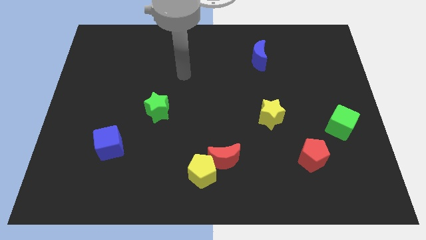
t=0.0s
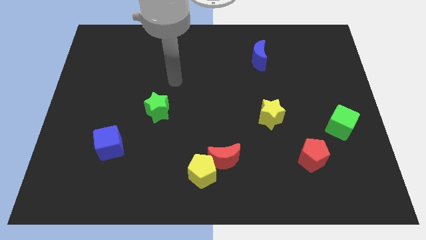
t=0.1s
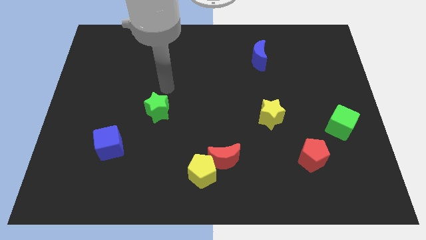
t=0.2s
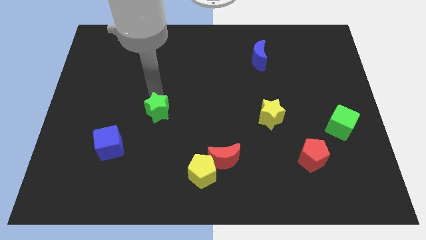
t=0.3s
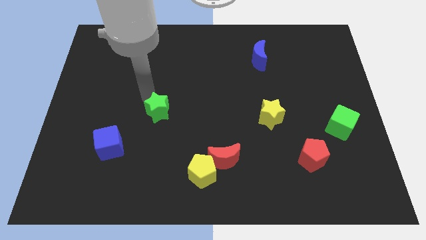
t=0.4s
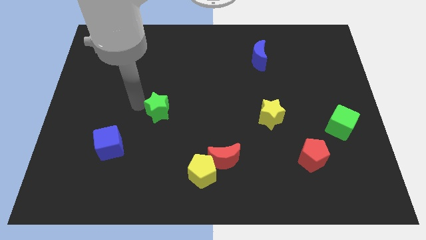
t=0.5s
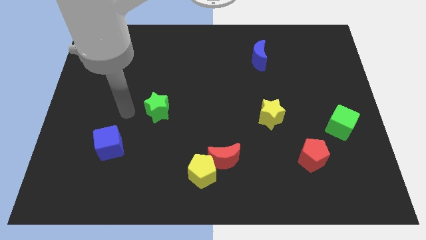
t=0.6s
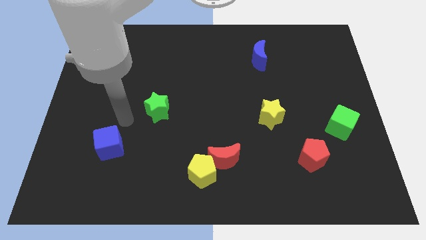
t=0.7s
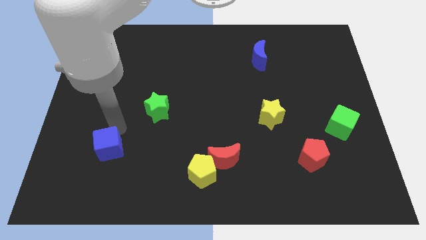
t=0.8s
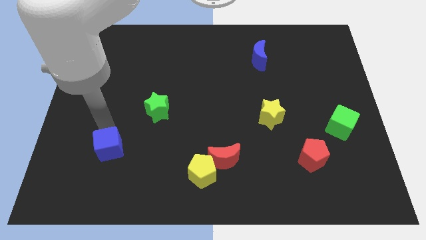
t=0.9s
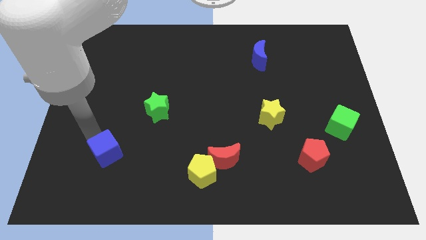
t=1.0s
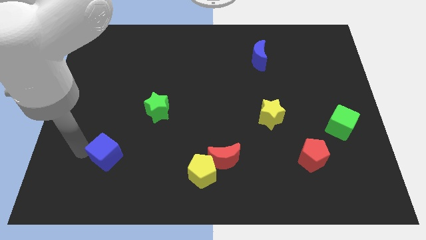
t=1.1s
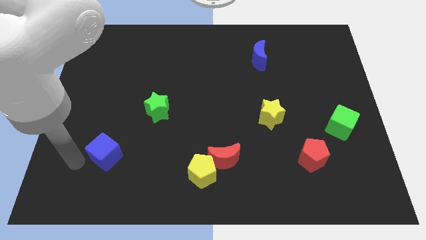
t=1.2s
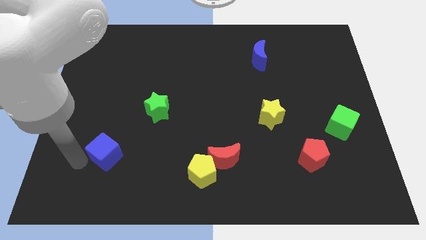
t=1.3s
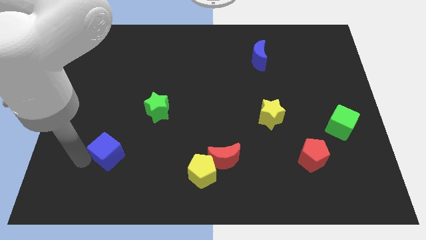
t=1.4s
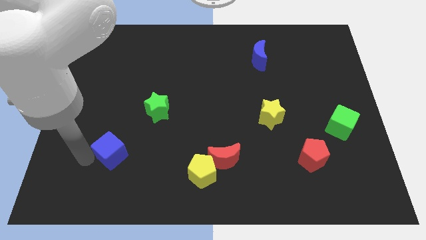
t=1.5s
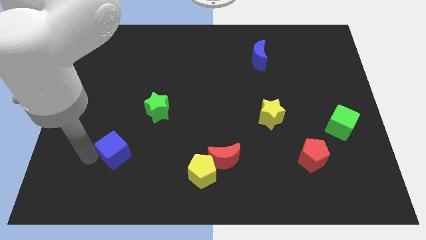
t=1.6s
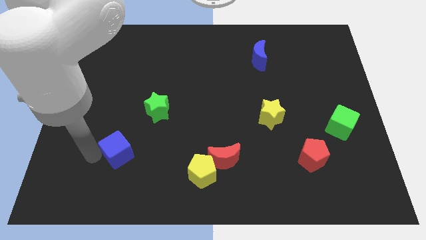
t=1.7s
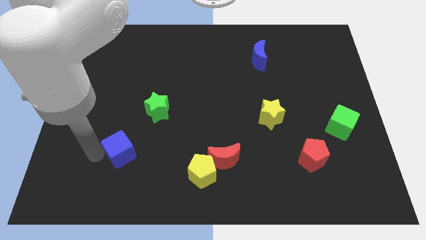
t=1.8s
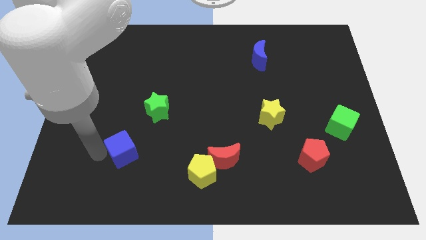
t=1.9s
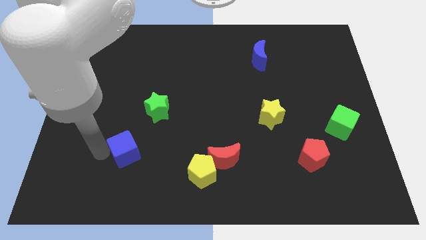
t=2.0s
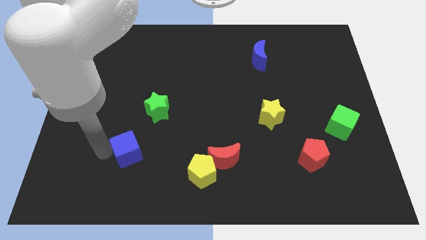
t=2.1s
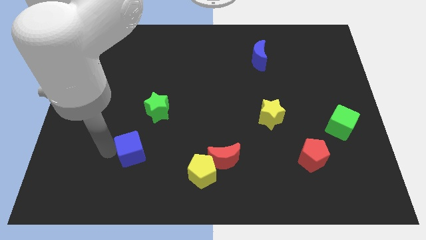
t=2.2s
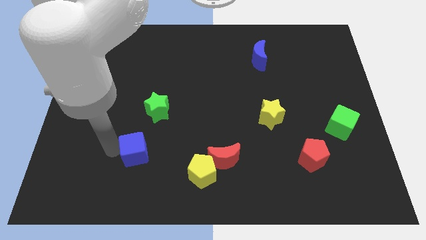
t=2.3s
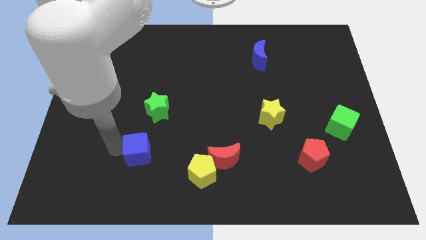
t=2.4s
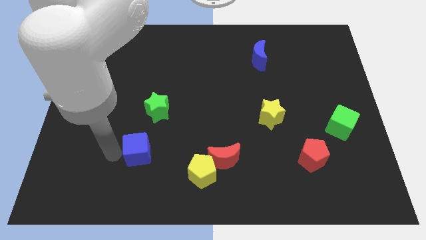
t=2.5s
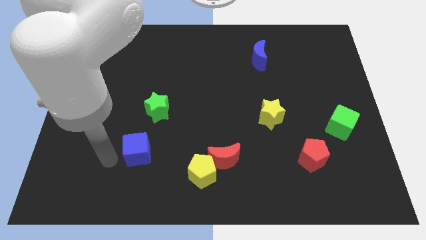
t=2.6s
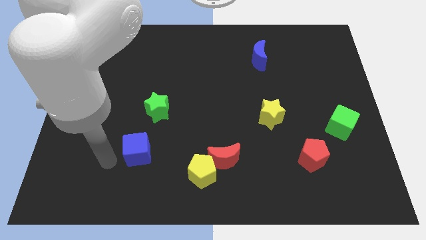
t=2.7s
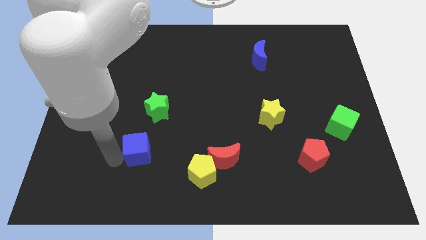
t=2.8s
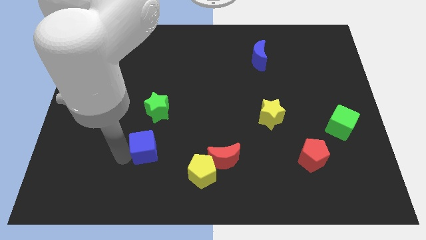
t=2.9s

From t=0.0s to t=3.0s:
slightly push the blue cube to the right

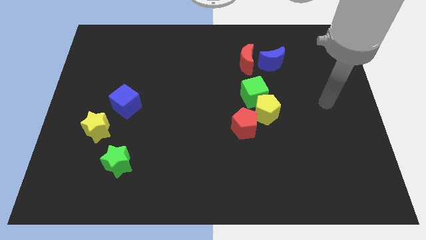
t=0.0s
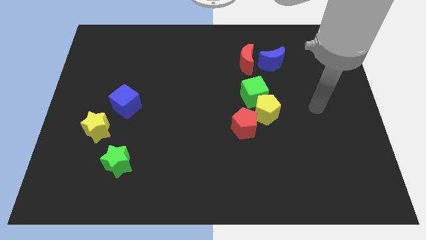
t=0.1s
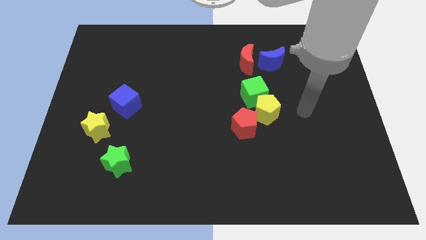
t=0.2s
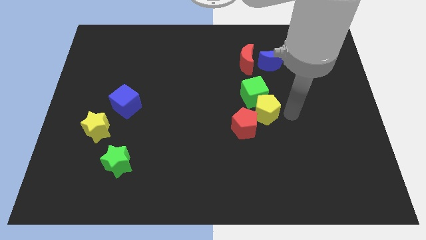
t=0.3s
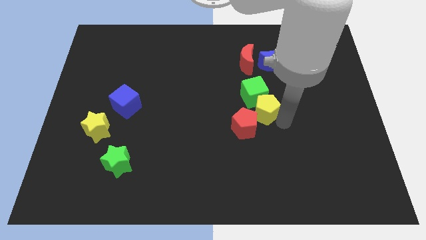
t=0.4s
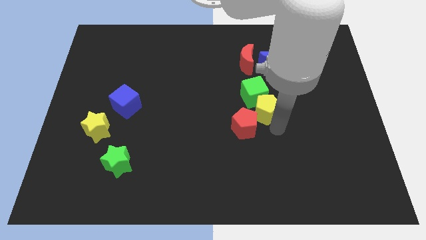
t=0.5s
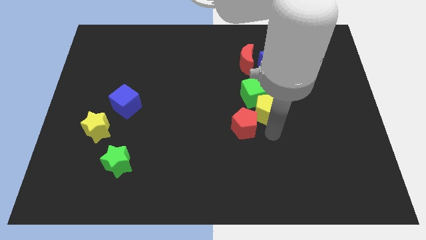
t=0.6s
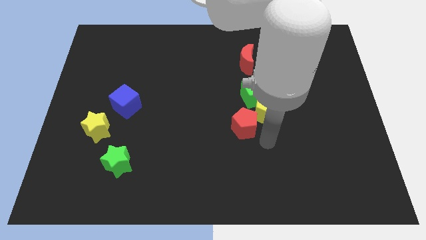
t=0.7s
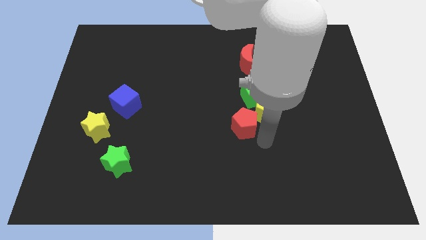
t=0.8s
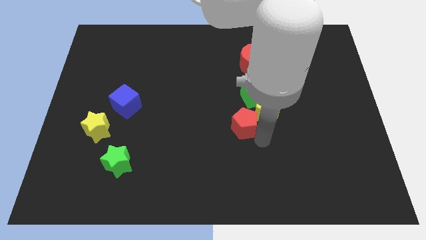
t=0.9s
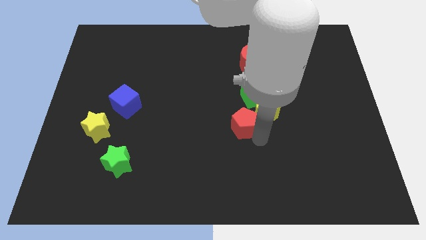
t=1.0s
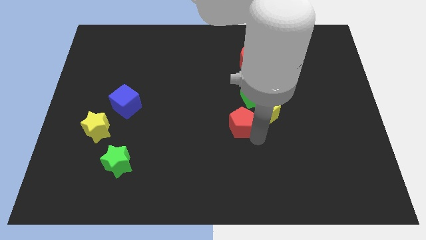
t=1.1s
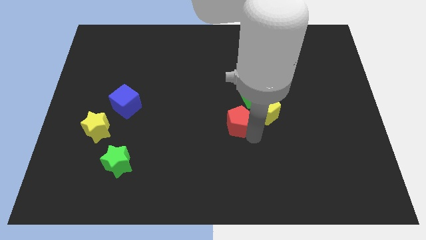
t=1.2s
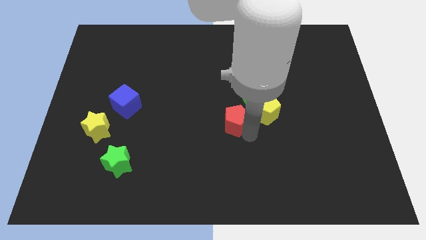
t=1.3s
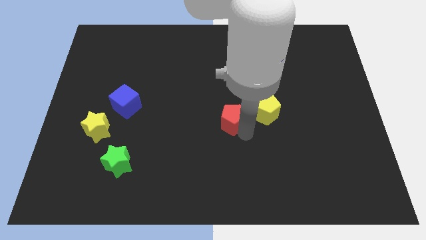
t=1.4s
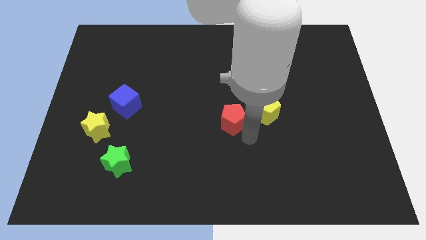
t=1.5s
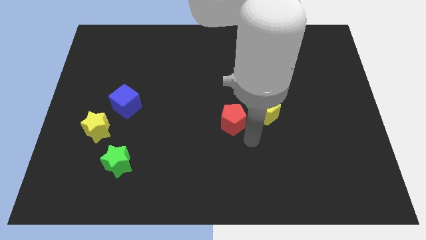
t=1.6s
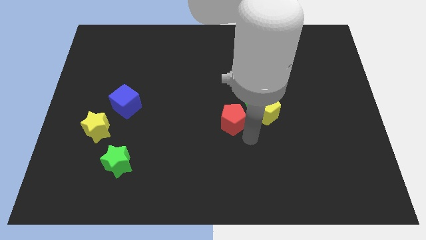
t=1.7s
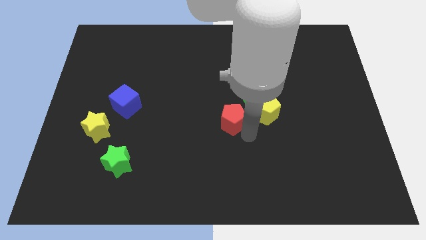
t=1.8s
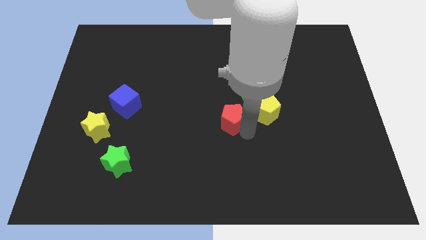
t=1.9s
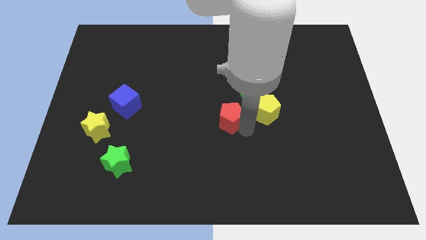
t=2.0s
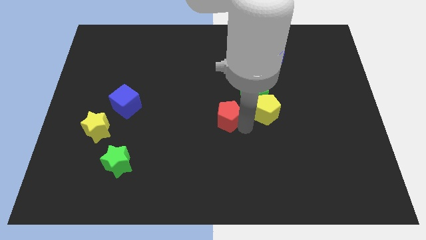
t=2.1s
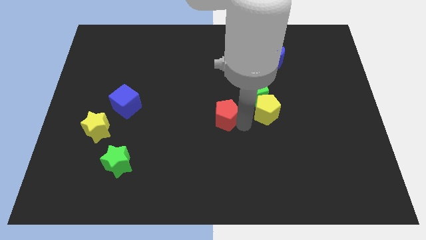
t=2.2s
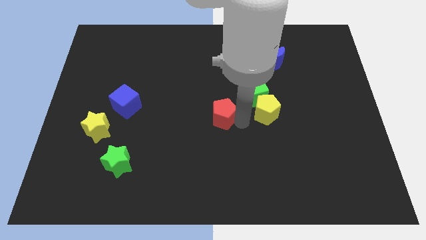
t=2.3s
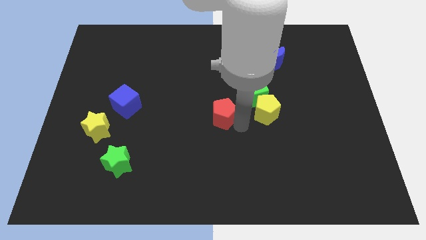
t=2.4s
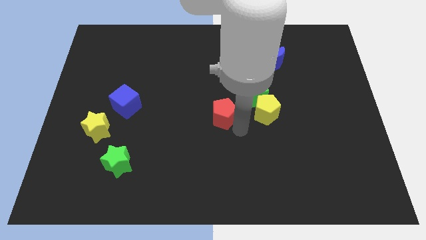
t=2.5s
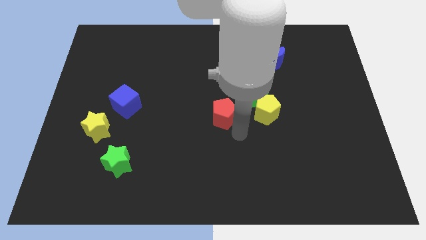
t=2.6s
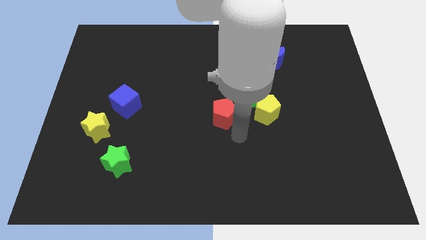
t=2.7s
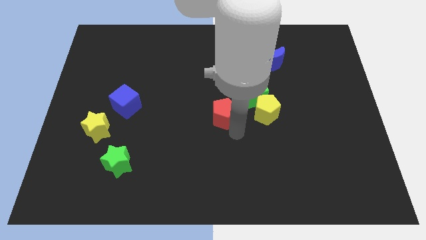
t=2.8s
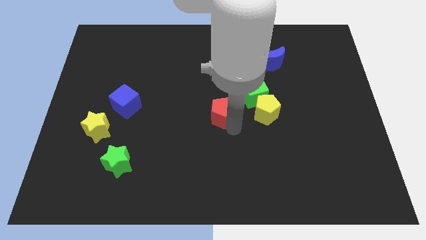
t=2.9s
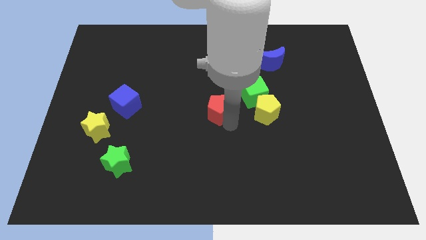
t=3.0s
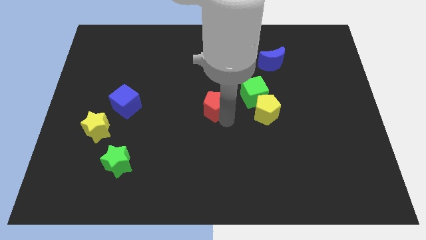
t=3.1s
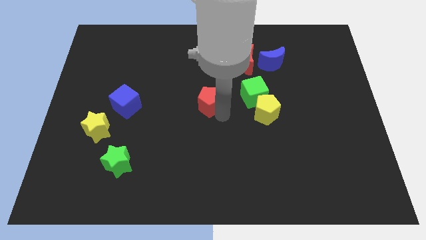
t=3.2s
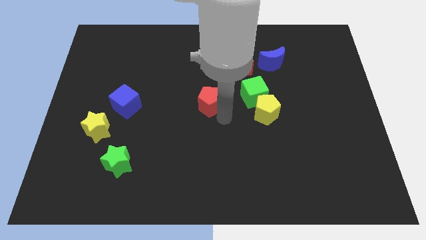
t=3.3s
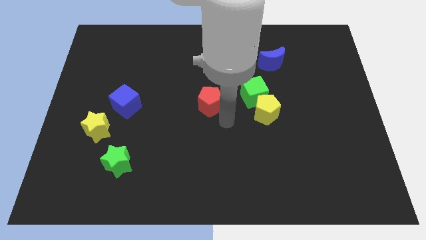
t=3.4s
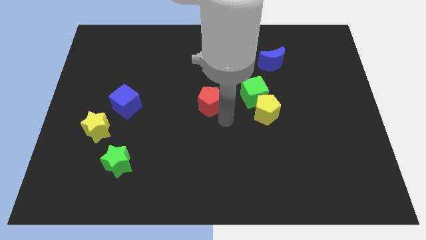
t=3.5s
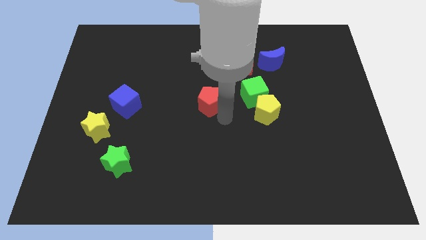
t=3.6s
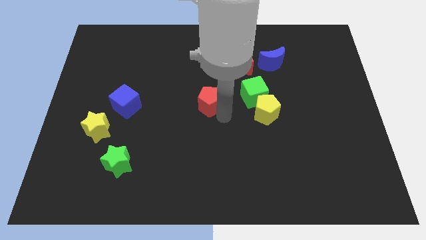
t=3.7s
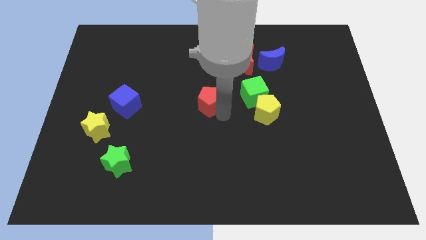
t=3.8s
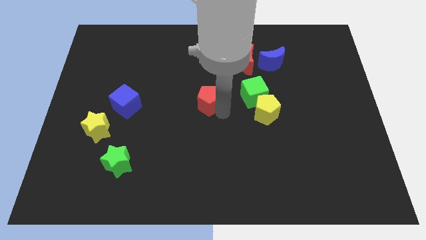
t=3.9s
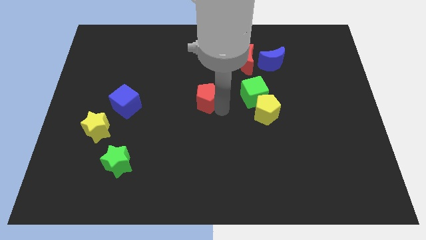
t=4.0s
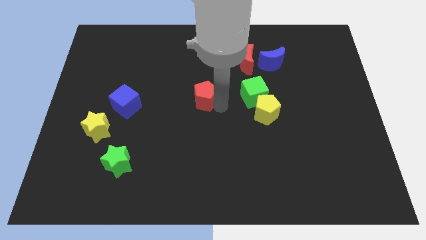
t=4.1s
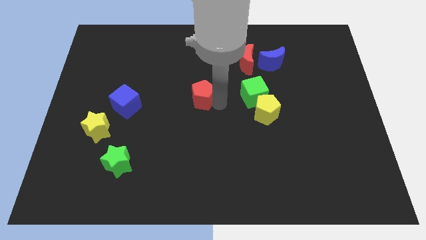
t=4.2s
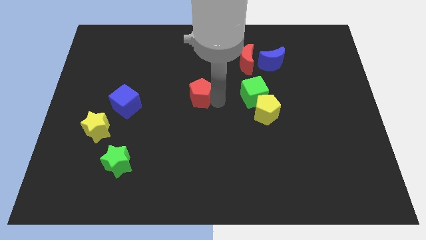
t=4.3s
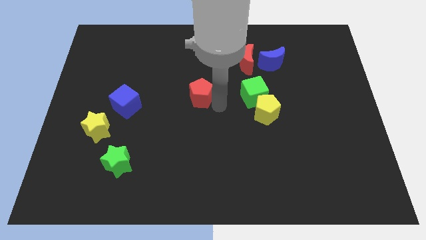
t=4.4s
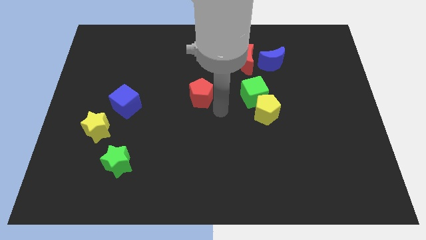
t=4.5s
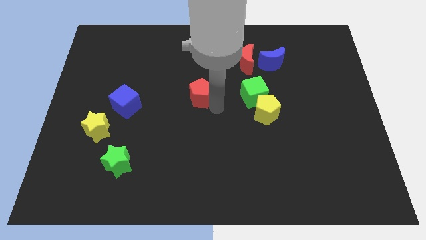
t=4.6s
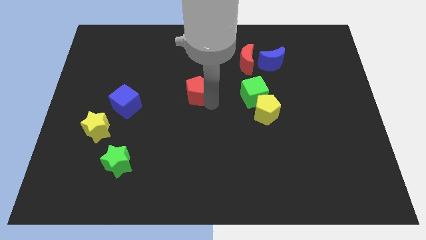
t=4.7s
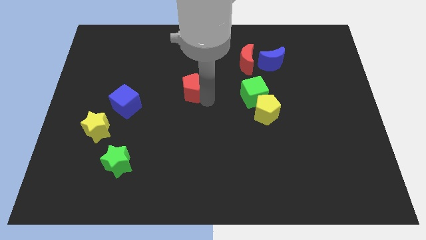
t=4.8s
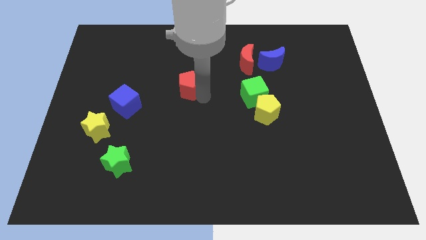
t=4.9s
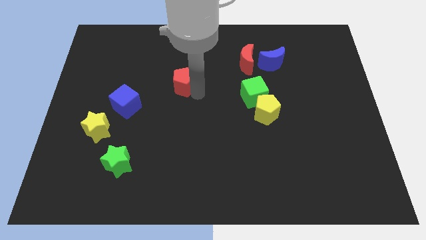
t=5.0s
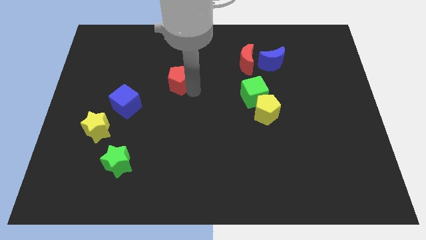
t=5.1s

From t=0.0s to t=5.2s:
move the red pentagon up and to the left diagonally
